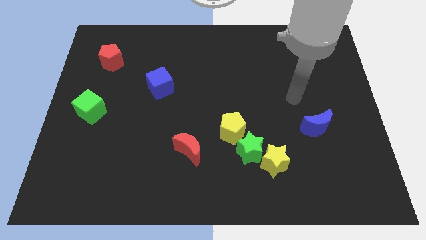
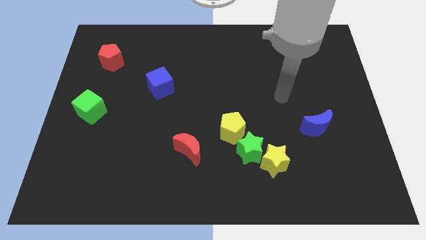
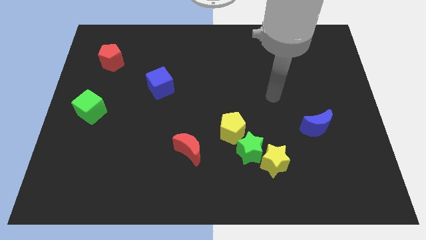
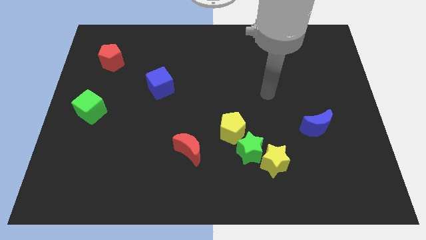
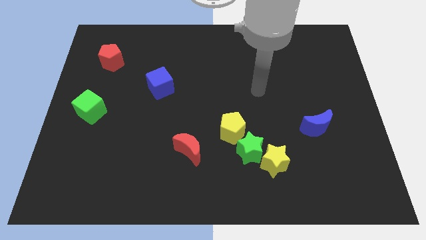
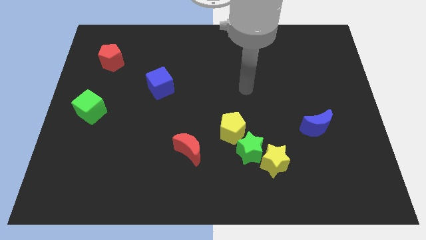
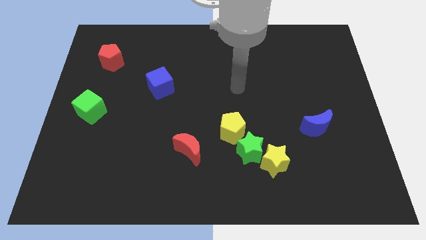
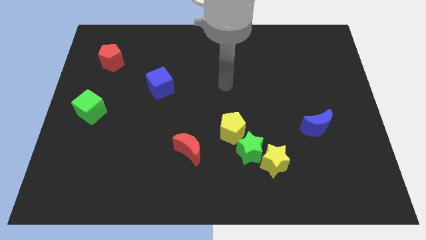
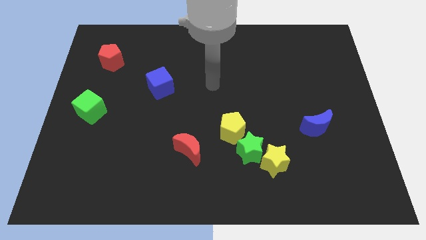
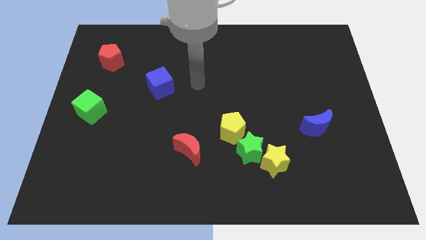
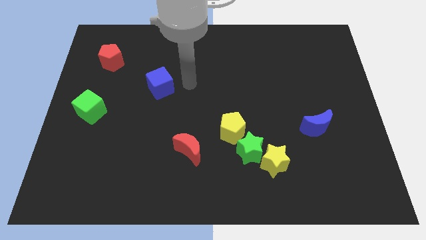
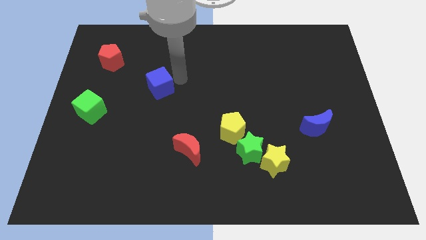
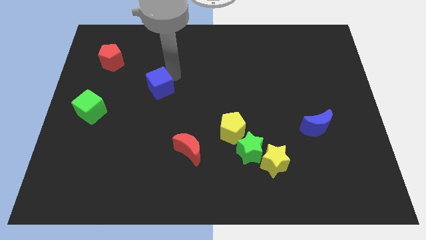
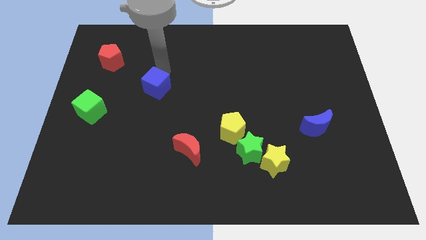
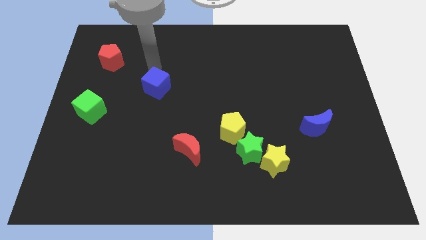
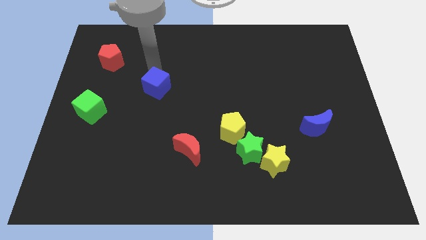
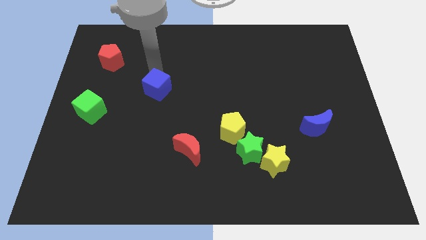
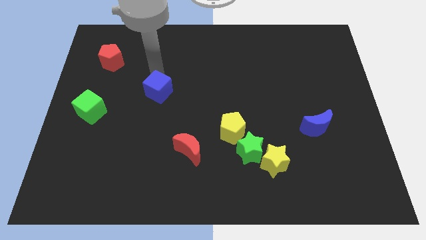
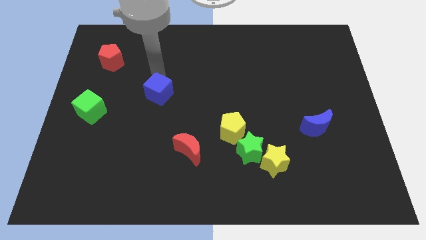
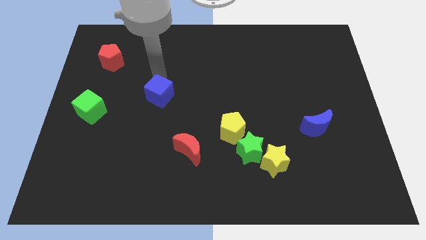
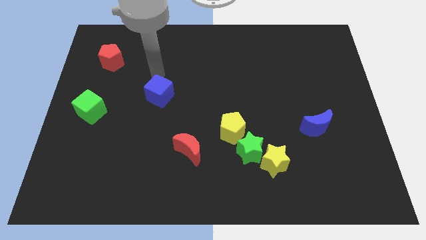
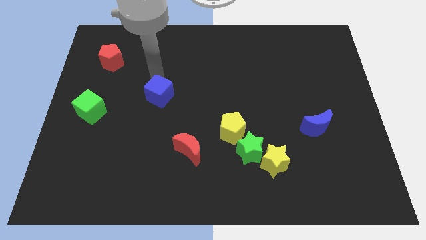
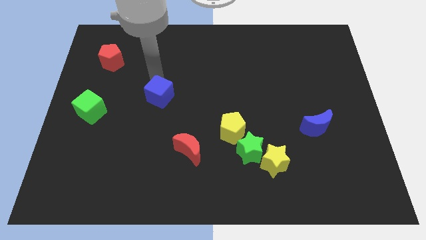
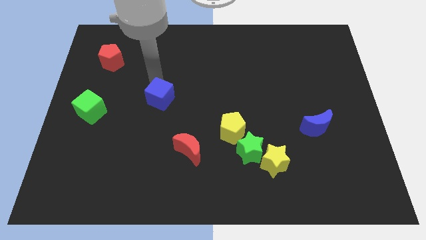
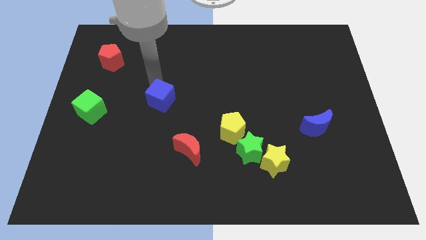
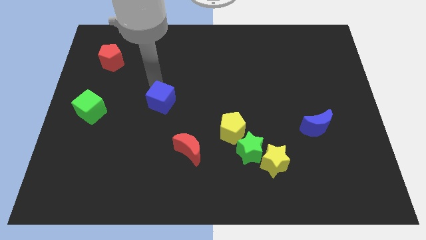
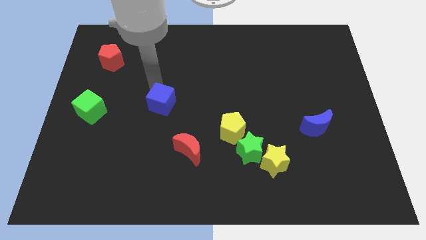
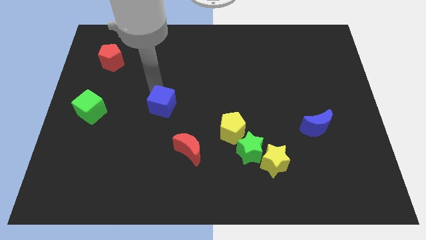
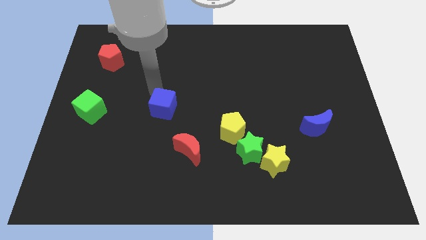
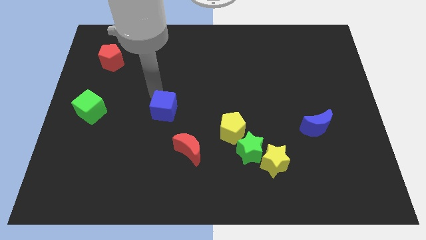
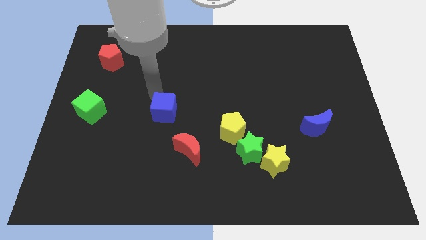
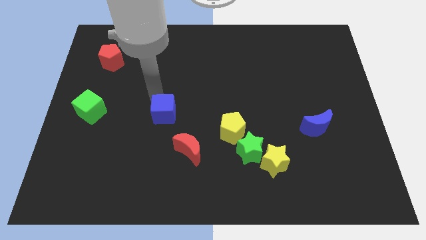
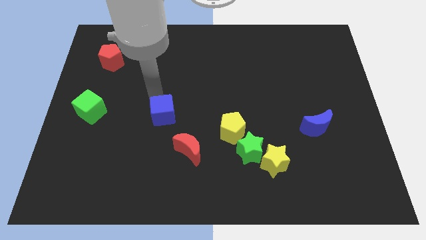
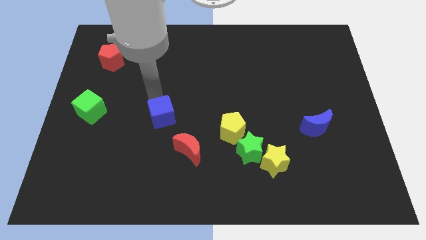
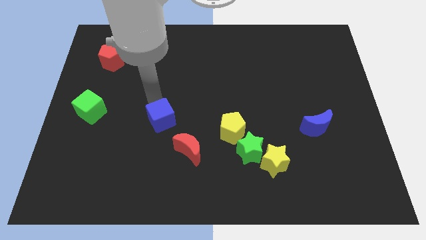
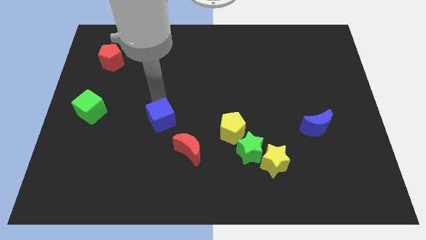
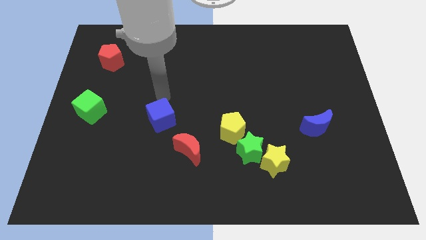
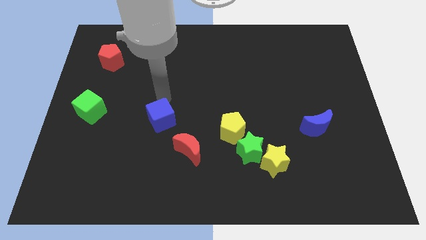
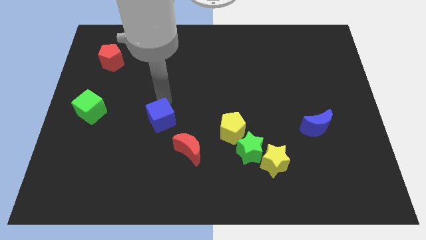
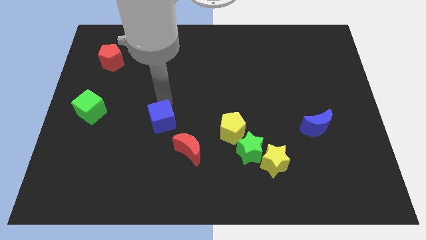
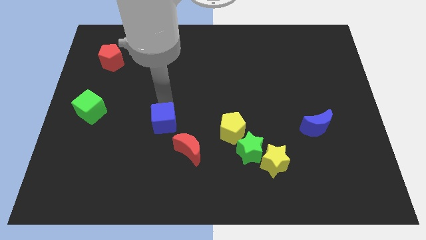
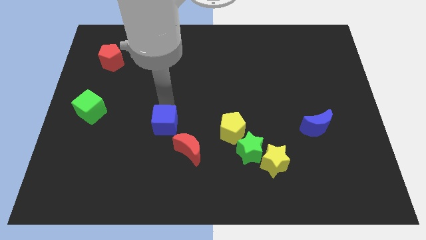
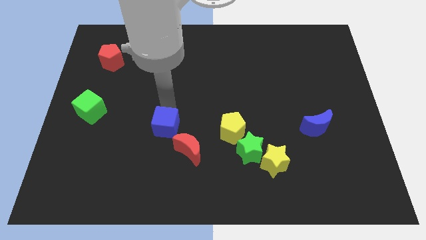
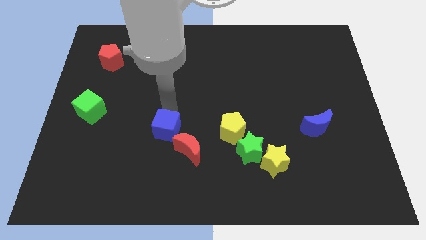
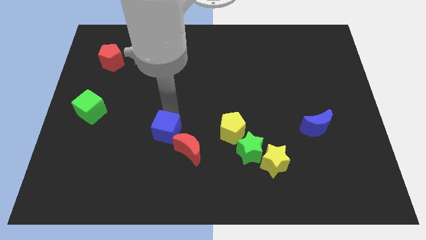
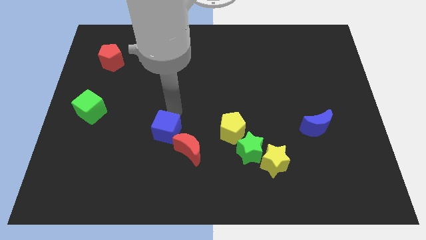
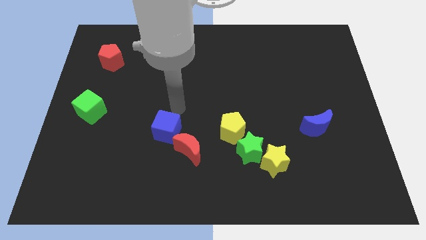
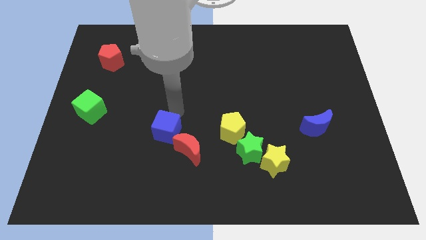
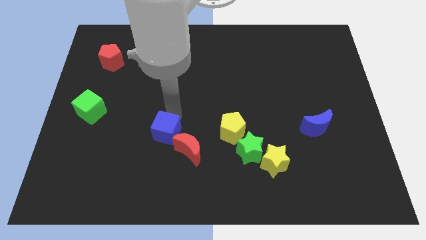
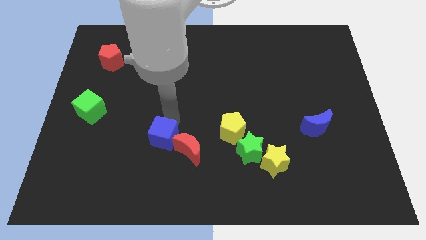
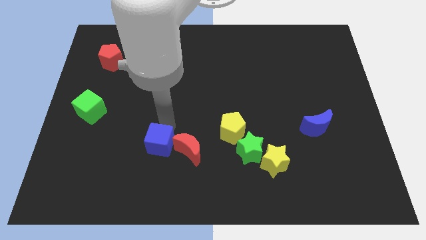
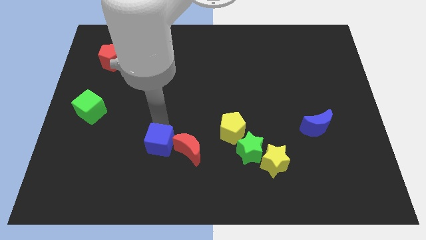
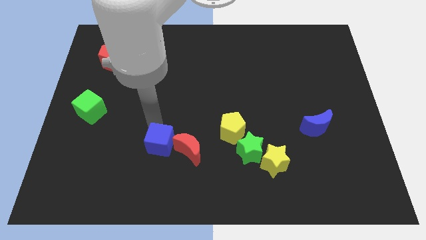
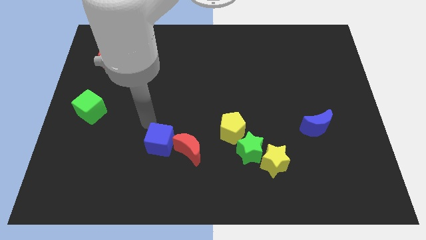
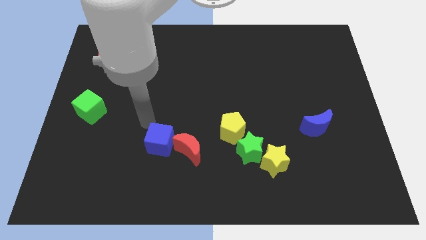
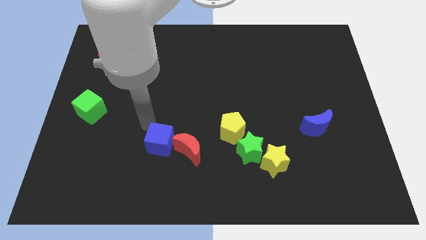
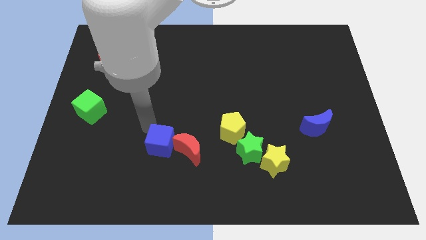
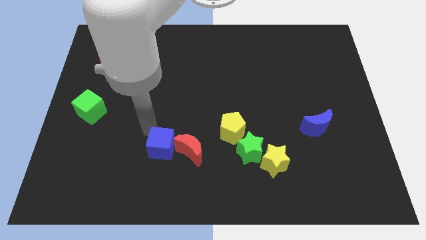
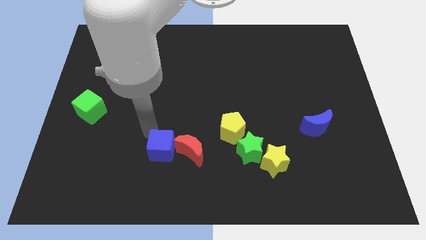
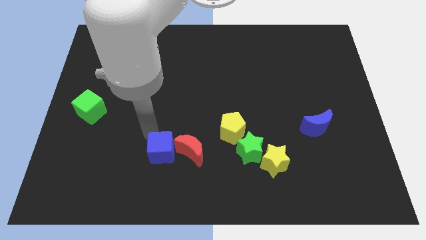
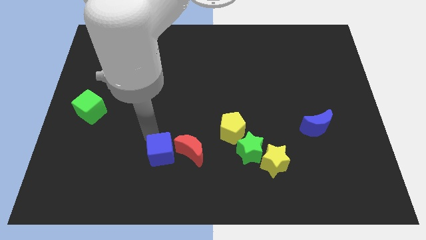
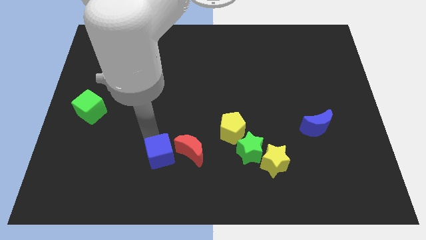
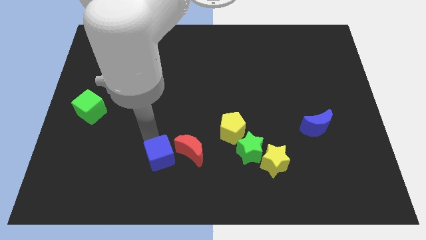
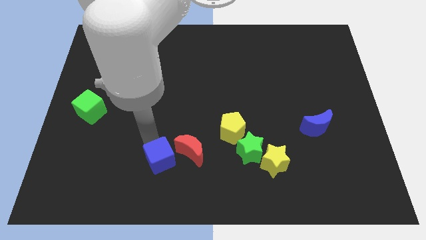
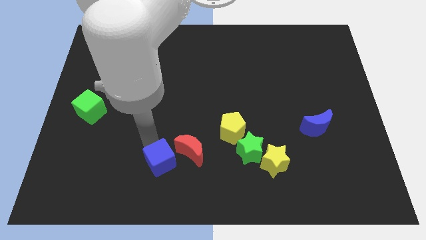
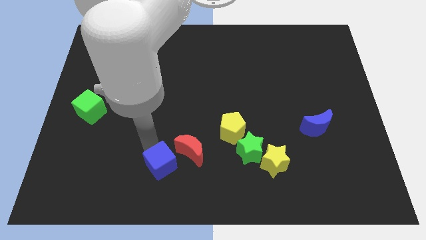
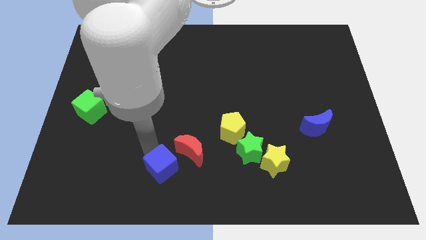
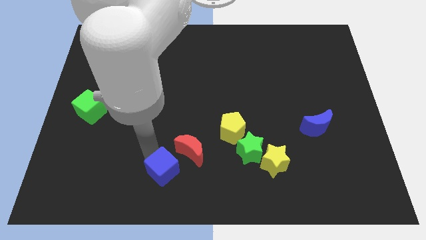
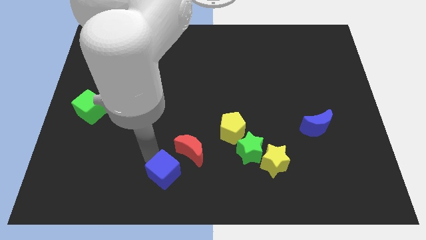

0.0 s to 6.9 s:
put the blue cube to the bottom side
